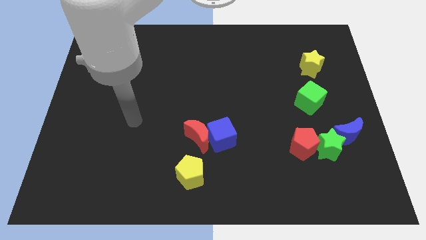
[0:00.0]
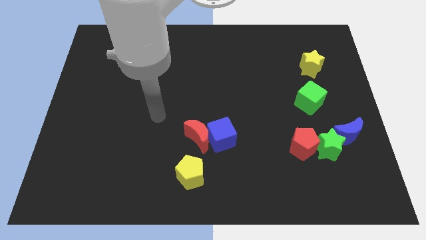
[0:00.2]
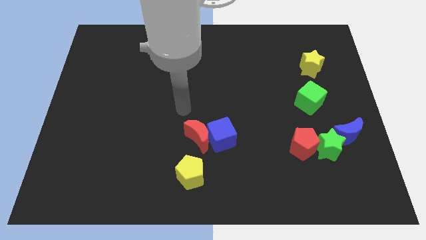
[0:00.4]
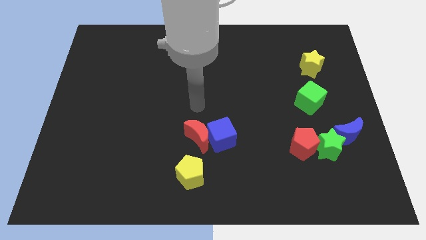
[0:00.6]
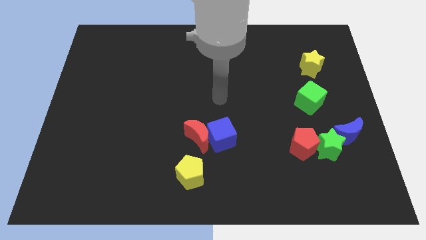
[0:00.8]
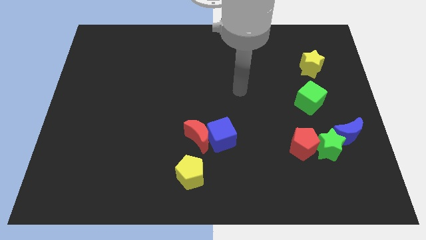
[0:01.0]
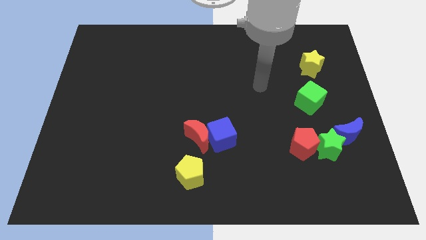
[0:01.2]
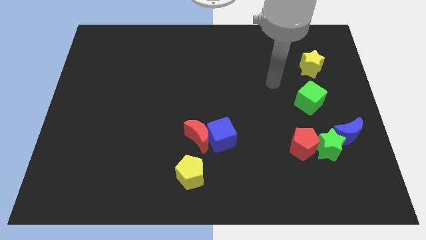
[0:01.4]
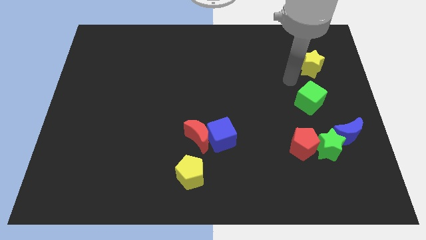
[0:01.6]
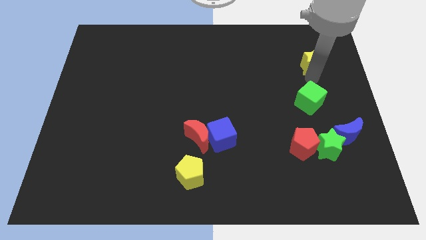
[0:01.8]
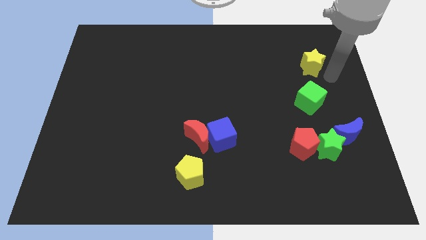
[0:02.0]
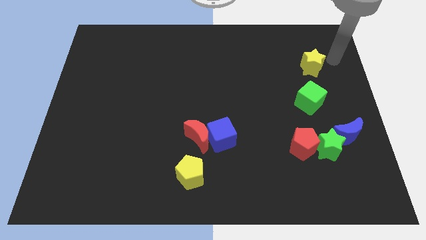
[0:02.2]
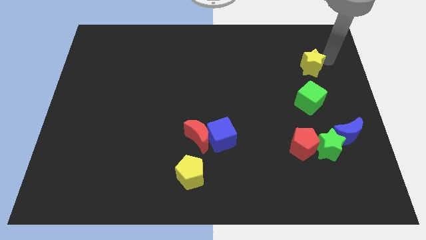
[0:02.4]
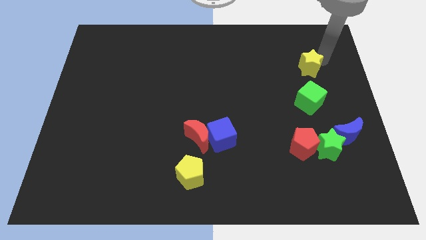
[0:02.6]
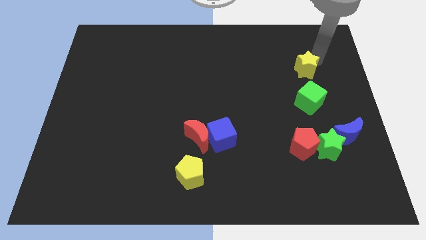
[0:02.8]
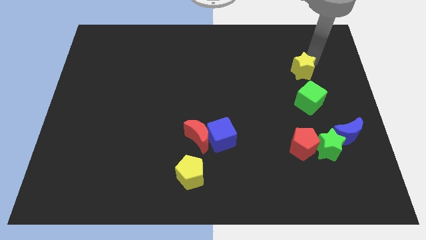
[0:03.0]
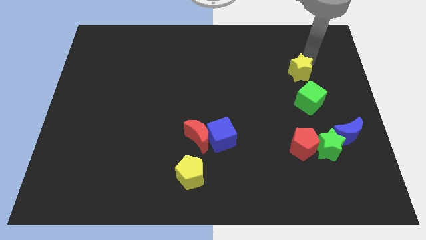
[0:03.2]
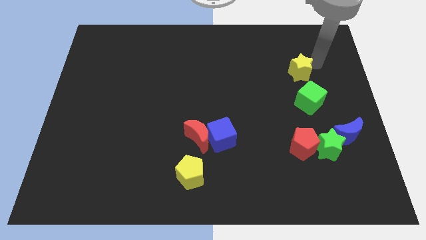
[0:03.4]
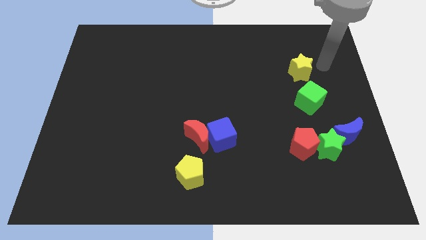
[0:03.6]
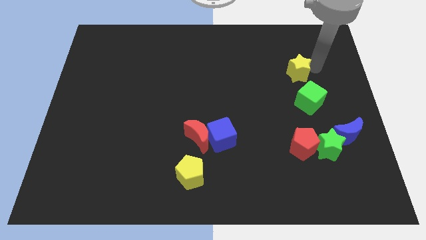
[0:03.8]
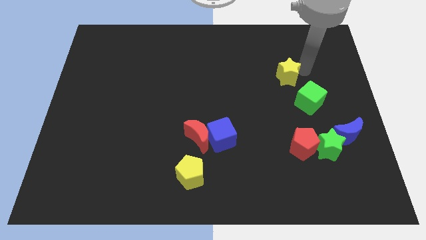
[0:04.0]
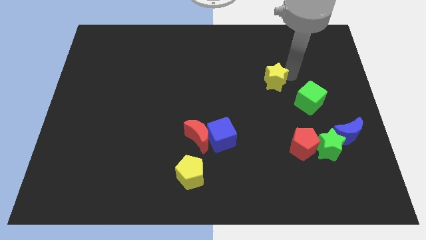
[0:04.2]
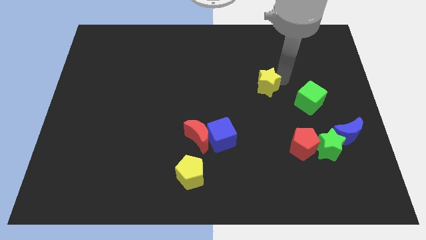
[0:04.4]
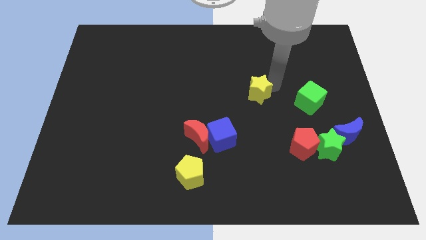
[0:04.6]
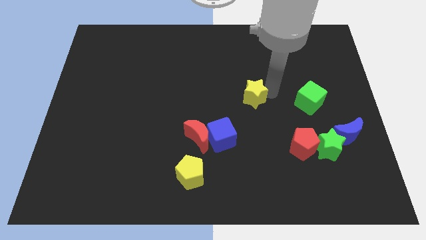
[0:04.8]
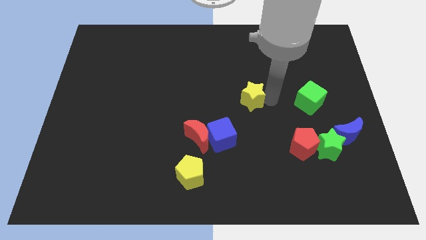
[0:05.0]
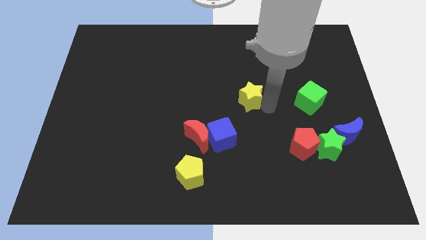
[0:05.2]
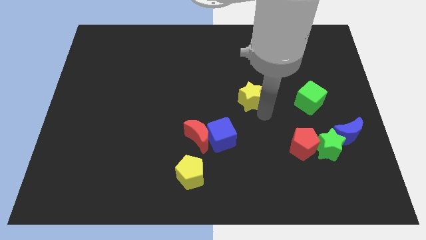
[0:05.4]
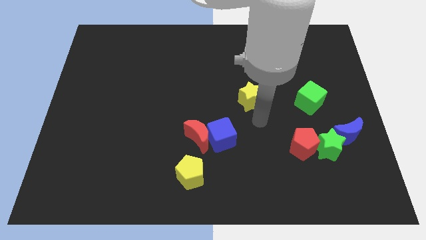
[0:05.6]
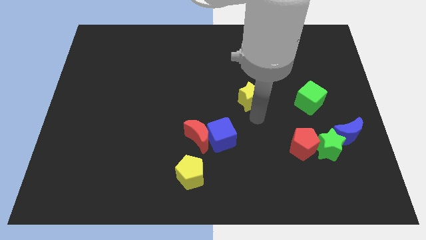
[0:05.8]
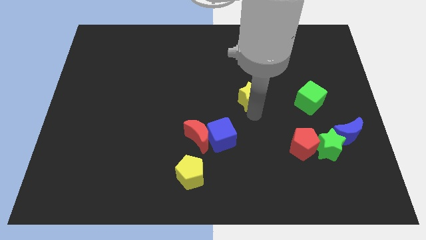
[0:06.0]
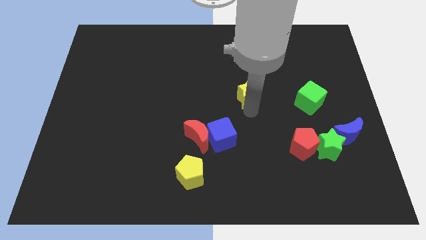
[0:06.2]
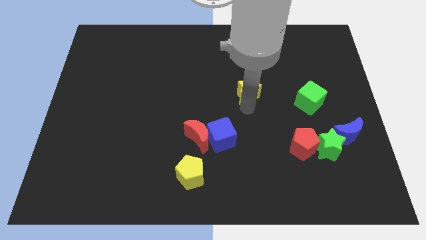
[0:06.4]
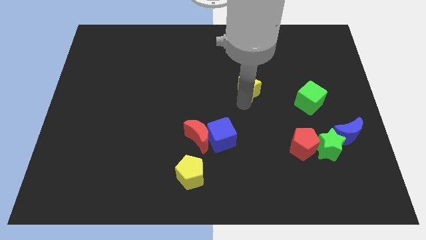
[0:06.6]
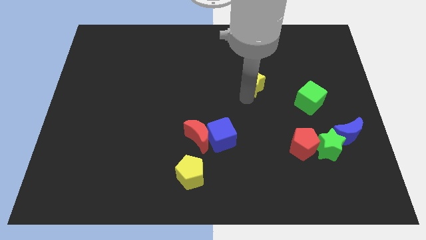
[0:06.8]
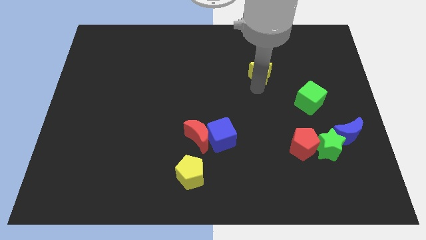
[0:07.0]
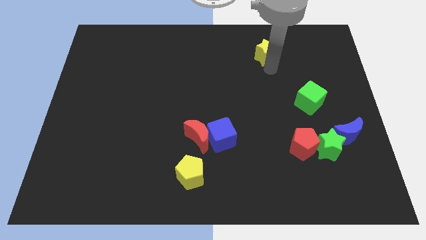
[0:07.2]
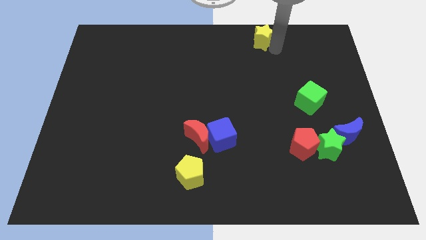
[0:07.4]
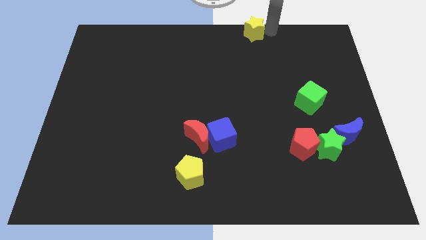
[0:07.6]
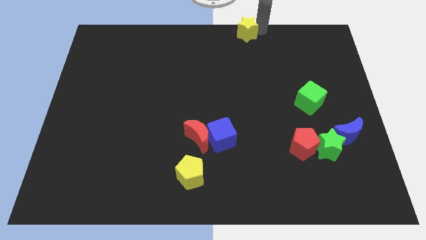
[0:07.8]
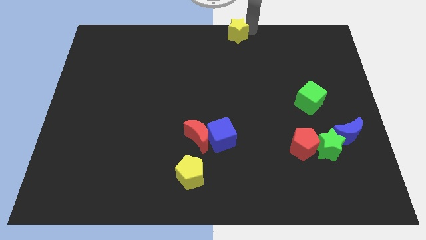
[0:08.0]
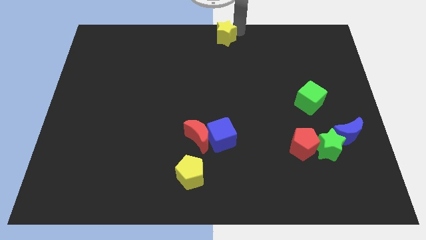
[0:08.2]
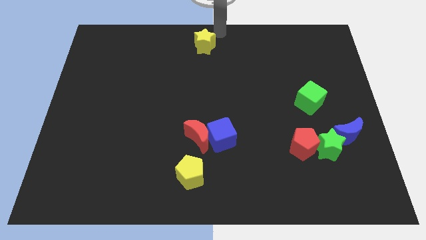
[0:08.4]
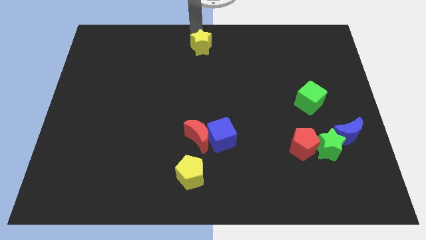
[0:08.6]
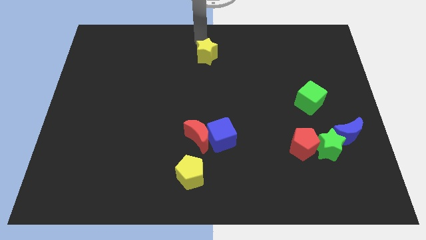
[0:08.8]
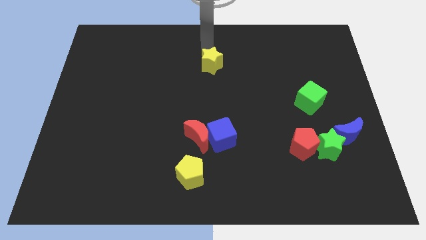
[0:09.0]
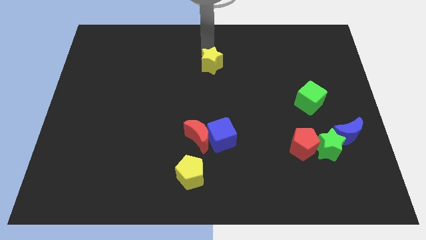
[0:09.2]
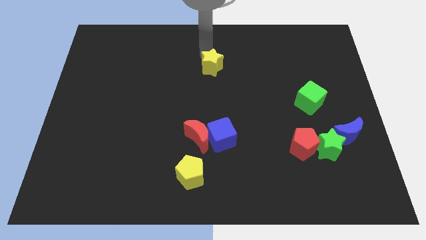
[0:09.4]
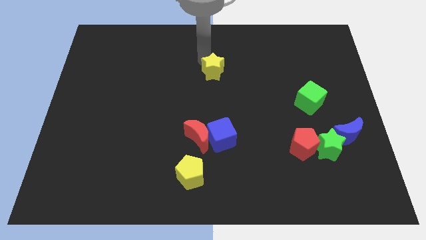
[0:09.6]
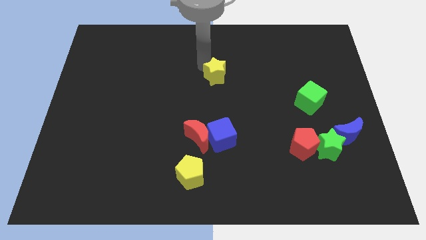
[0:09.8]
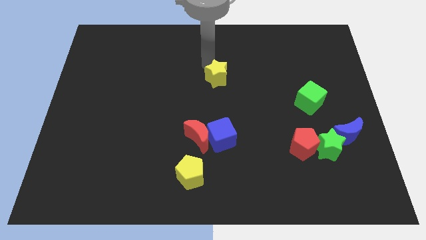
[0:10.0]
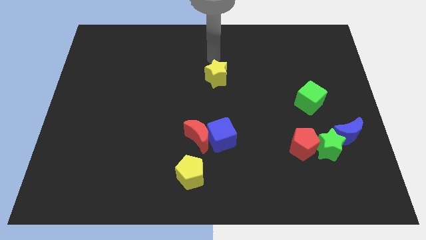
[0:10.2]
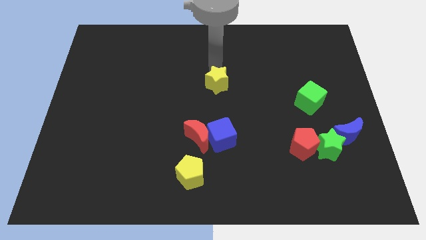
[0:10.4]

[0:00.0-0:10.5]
push the yellow star to the top side of the blue cube

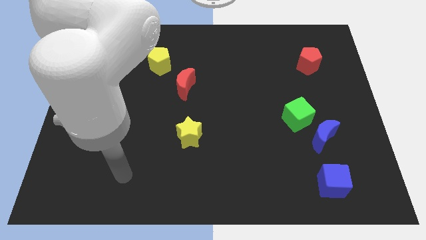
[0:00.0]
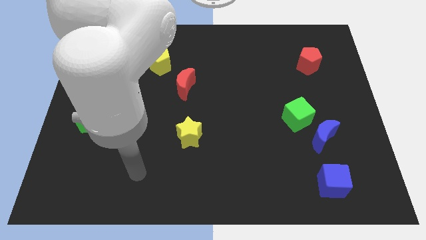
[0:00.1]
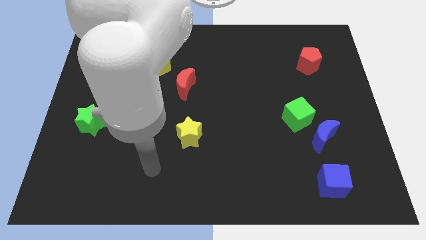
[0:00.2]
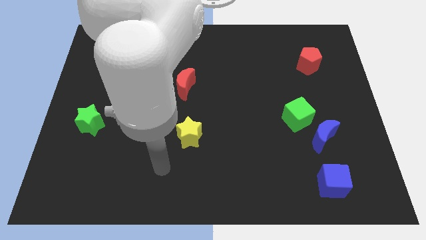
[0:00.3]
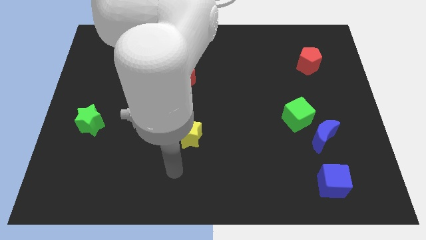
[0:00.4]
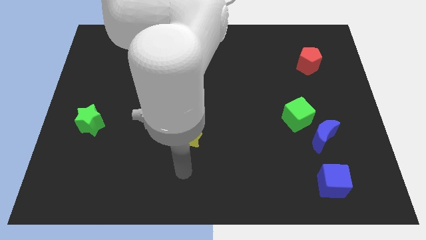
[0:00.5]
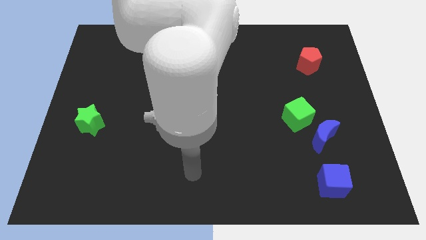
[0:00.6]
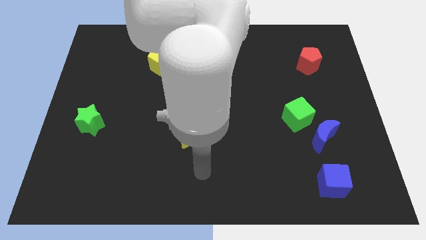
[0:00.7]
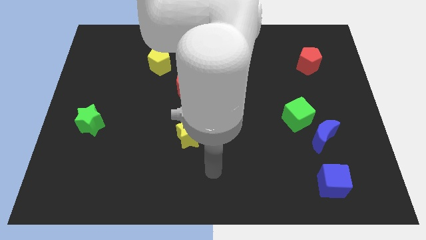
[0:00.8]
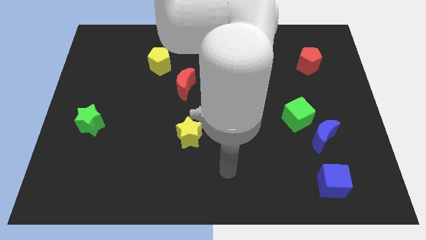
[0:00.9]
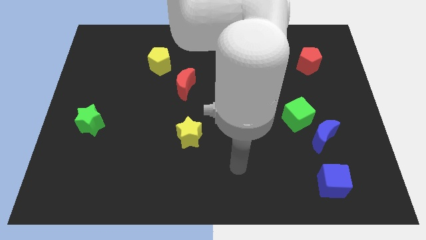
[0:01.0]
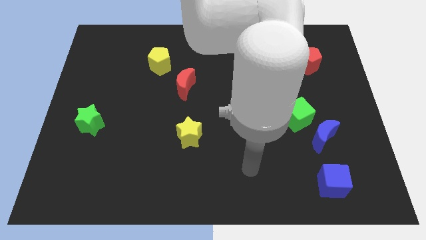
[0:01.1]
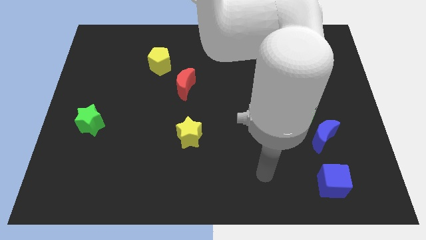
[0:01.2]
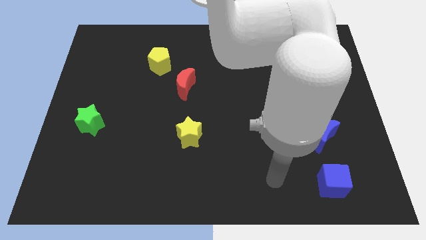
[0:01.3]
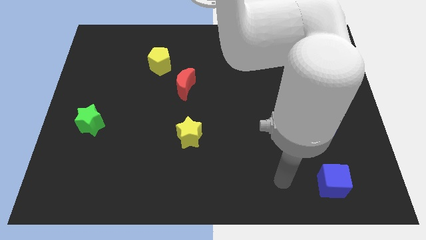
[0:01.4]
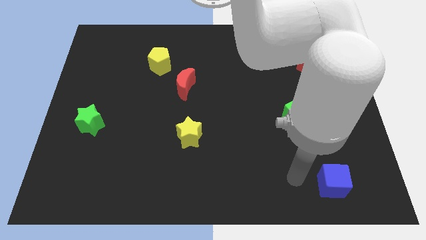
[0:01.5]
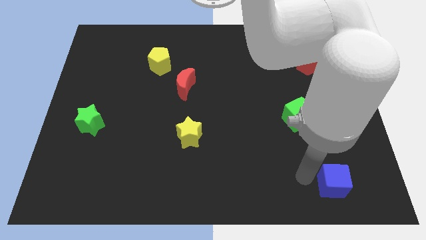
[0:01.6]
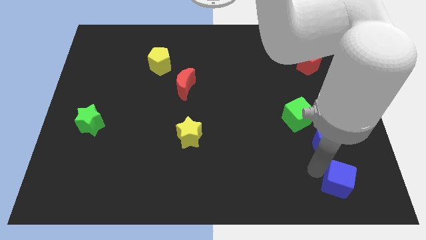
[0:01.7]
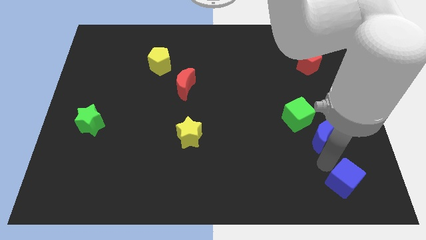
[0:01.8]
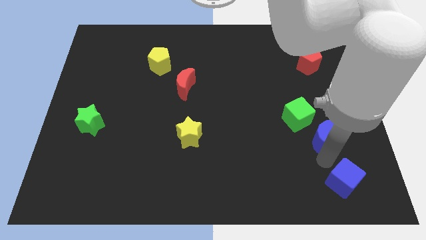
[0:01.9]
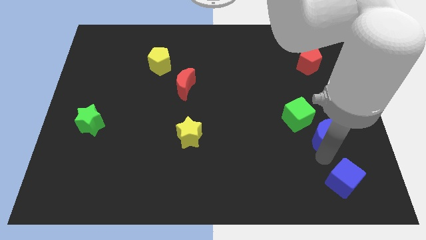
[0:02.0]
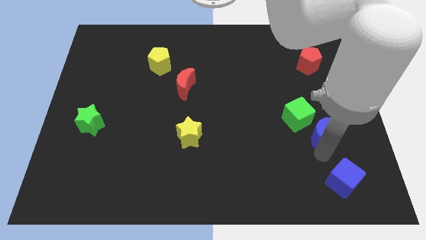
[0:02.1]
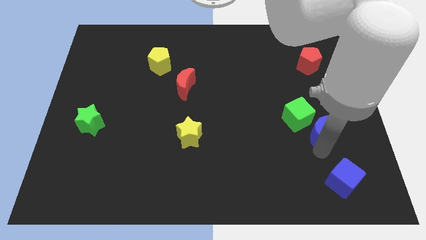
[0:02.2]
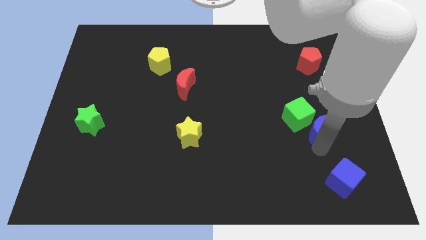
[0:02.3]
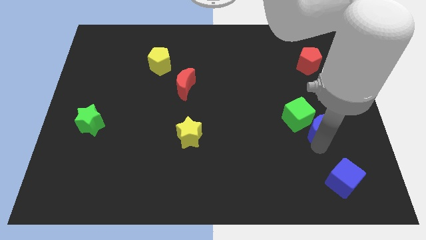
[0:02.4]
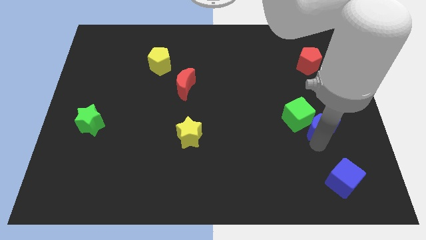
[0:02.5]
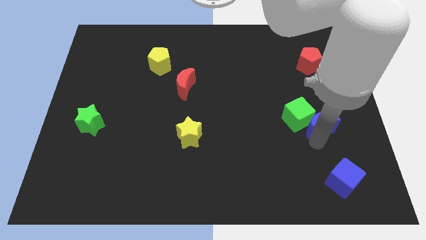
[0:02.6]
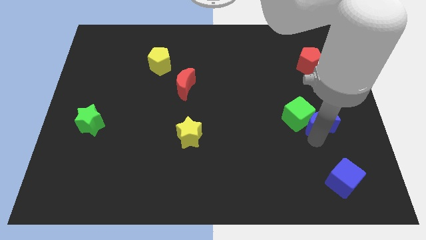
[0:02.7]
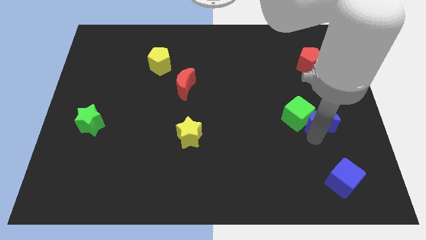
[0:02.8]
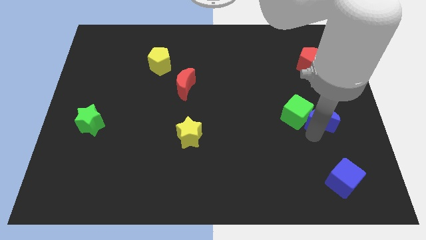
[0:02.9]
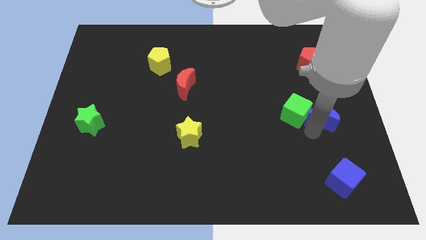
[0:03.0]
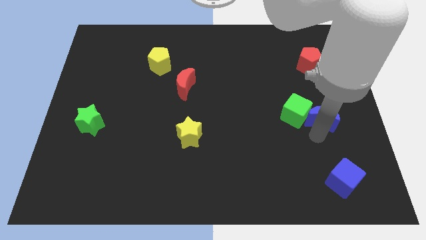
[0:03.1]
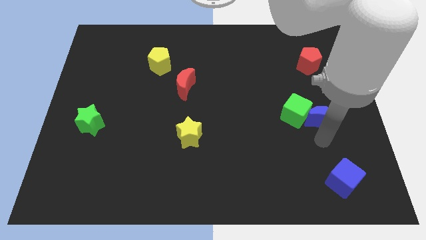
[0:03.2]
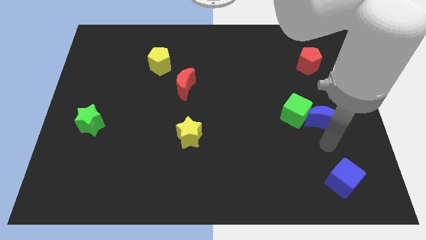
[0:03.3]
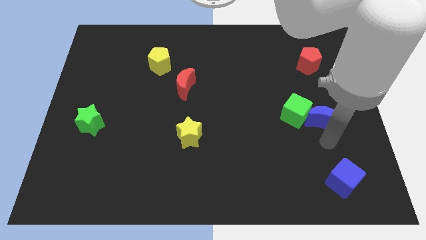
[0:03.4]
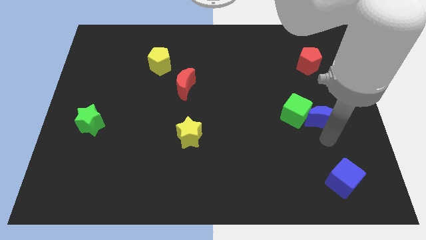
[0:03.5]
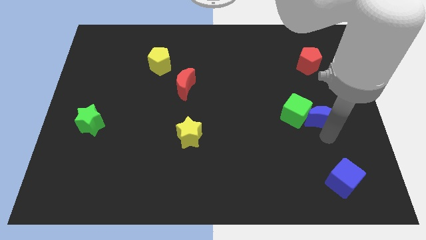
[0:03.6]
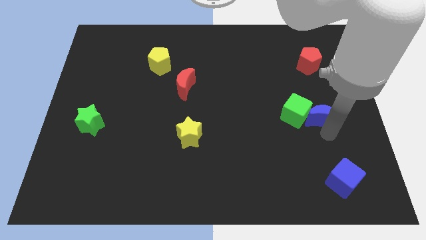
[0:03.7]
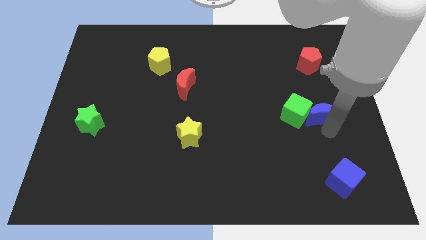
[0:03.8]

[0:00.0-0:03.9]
move the blue moon to the top right of the green cube
